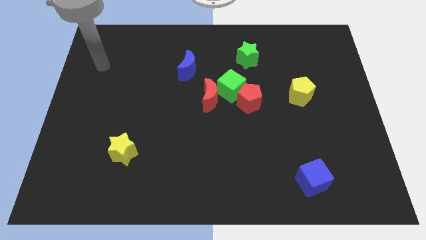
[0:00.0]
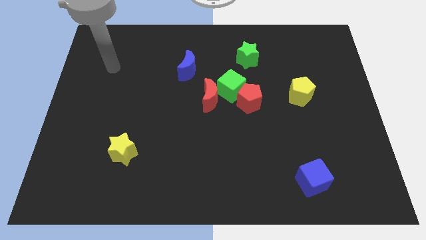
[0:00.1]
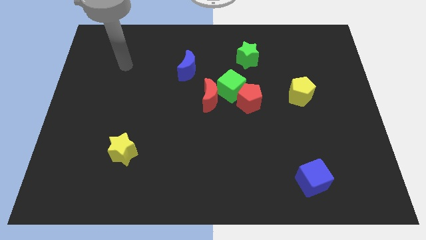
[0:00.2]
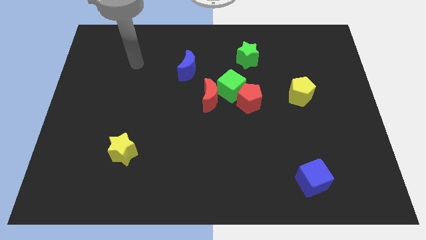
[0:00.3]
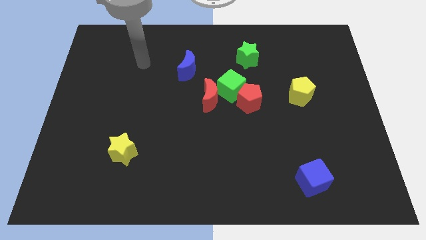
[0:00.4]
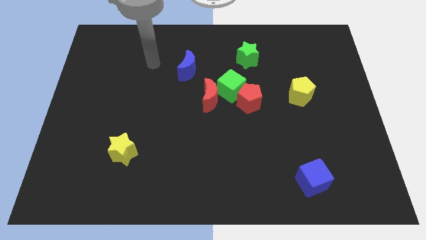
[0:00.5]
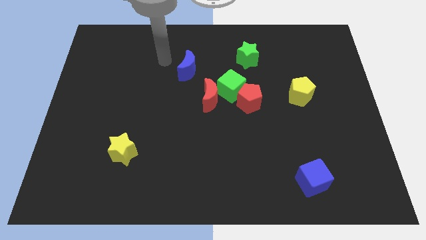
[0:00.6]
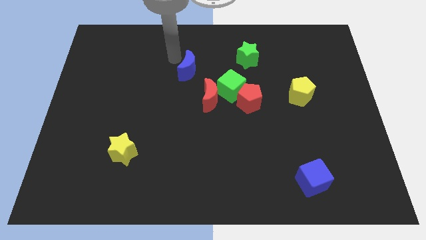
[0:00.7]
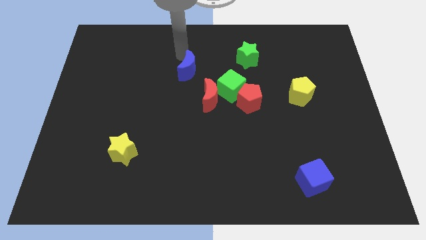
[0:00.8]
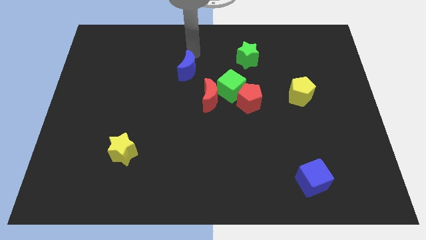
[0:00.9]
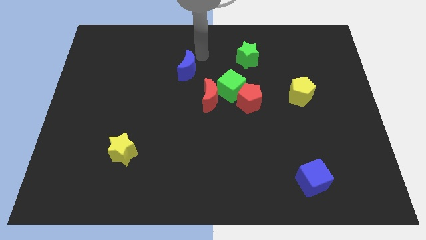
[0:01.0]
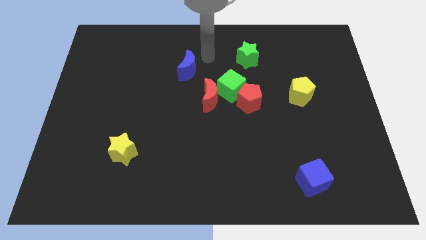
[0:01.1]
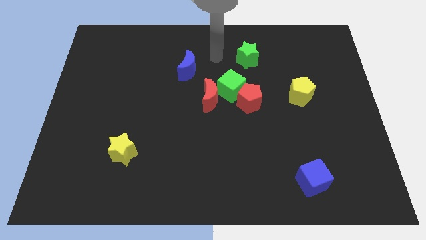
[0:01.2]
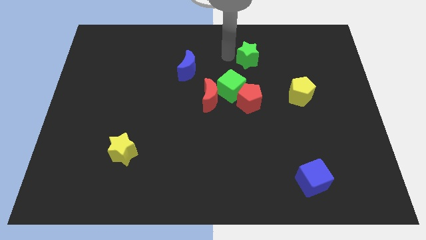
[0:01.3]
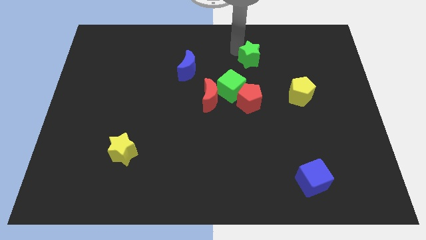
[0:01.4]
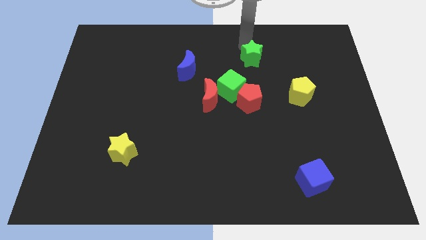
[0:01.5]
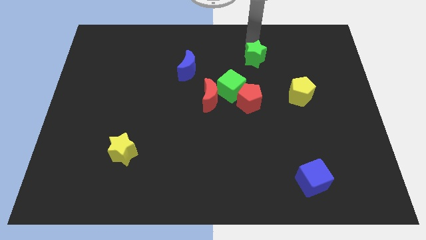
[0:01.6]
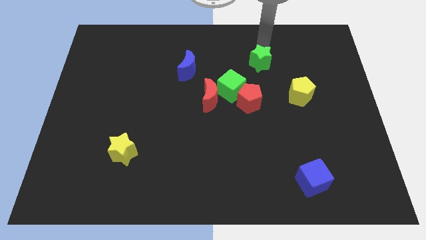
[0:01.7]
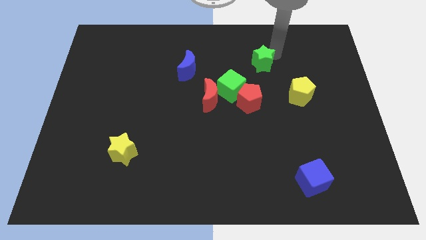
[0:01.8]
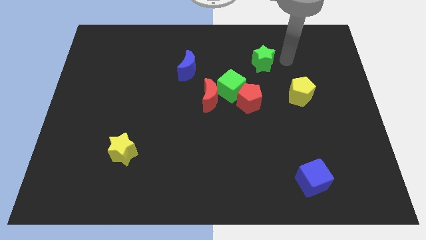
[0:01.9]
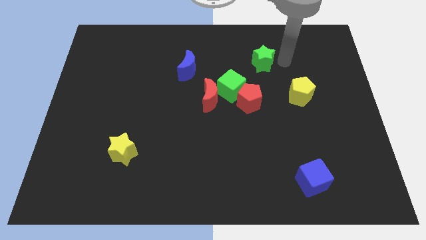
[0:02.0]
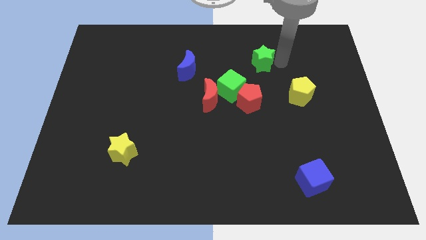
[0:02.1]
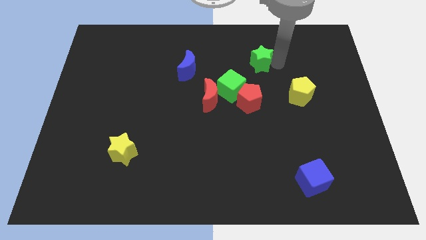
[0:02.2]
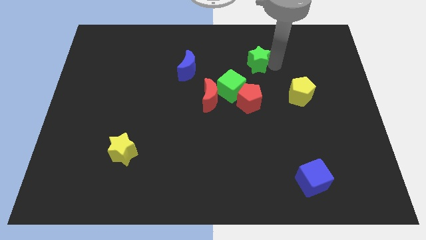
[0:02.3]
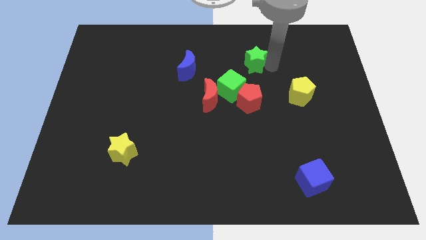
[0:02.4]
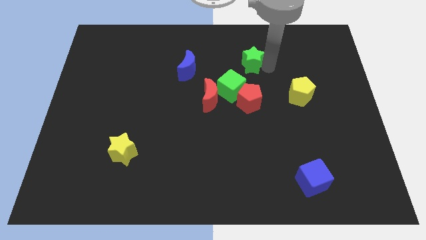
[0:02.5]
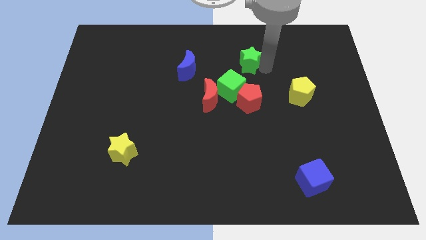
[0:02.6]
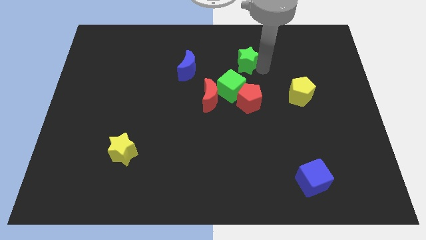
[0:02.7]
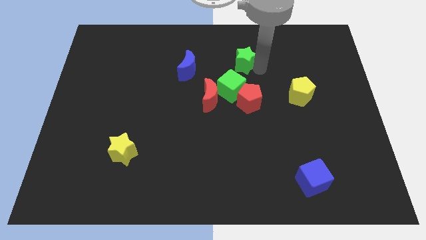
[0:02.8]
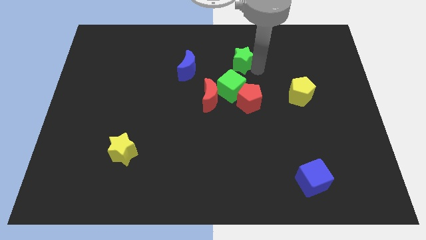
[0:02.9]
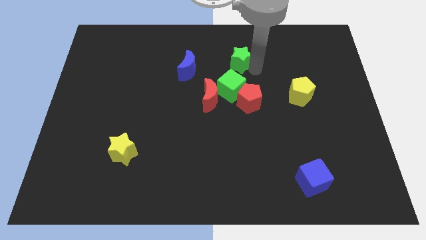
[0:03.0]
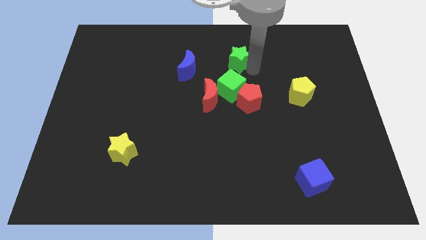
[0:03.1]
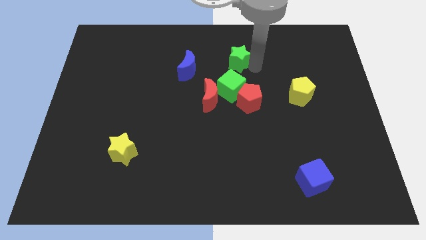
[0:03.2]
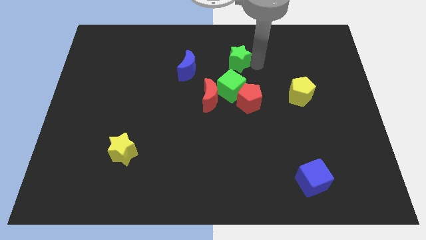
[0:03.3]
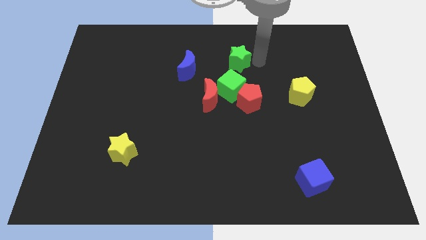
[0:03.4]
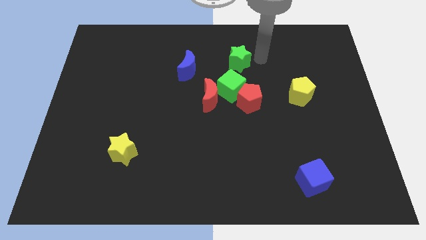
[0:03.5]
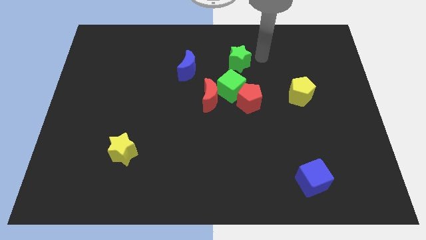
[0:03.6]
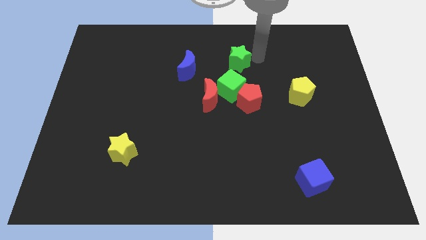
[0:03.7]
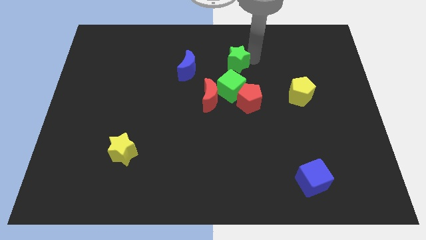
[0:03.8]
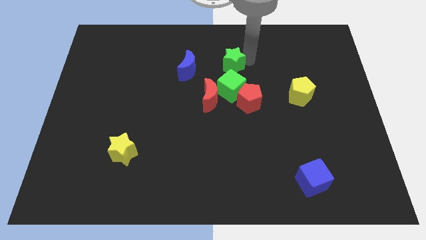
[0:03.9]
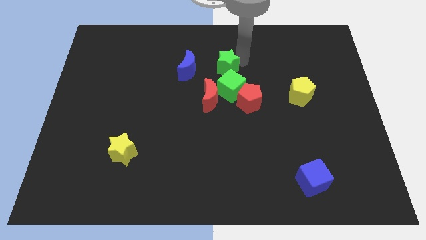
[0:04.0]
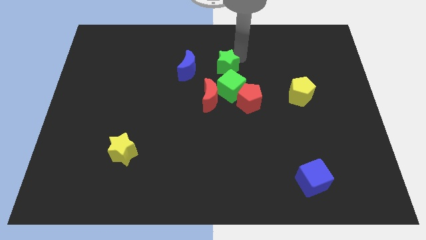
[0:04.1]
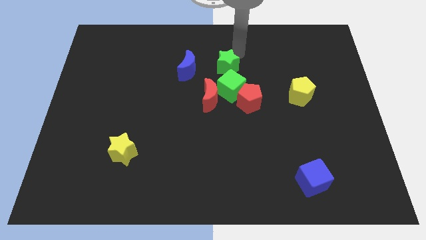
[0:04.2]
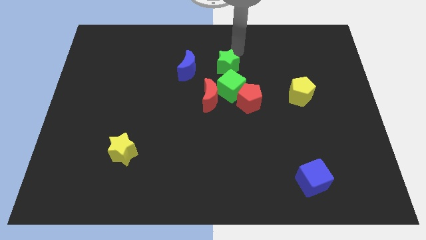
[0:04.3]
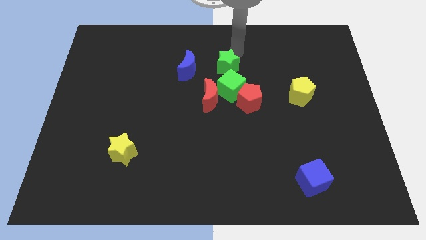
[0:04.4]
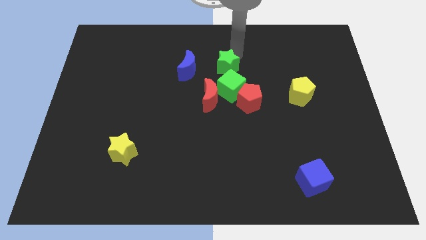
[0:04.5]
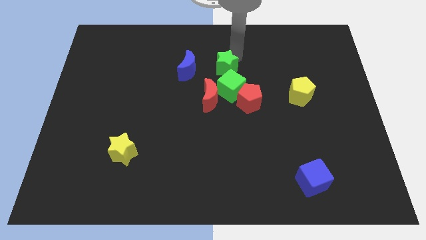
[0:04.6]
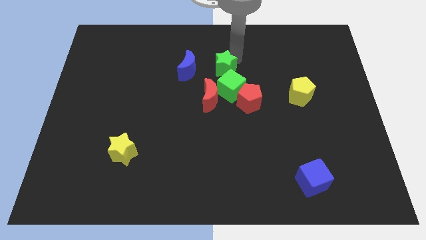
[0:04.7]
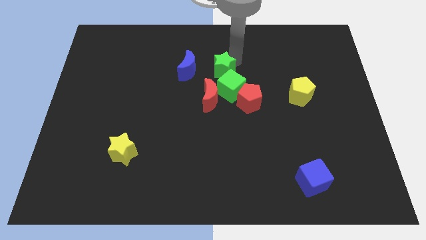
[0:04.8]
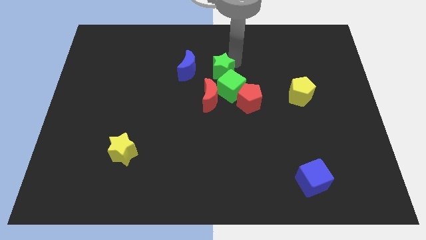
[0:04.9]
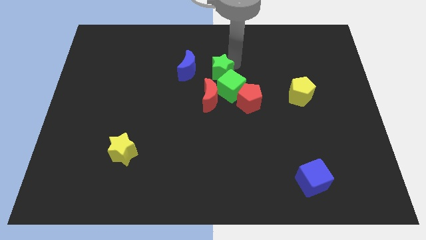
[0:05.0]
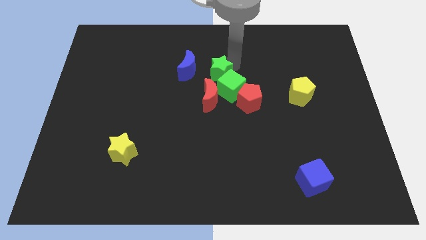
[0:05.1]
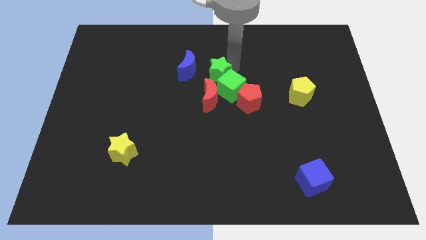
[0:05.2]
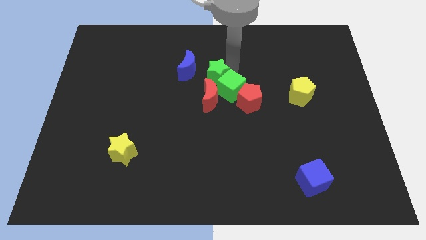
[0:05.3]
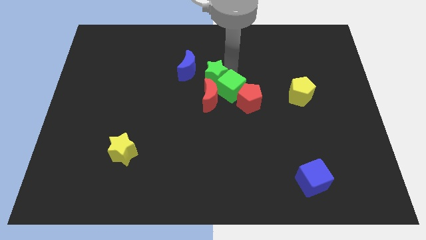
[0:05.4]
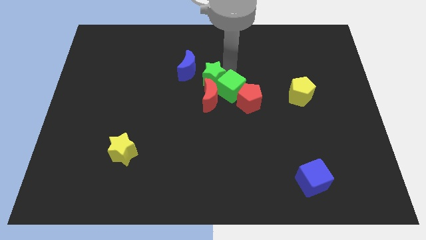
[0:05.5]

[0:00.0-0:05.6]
slide the green star to the red moon

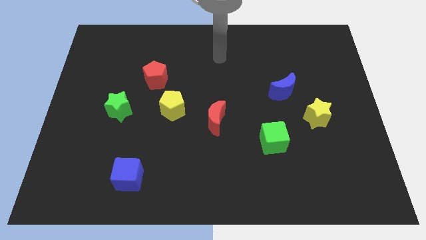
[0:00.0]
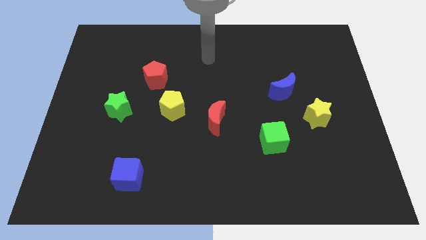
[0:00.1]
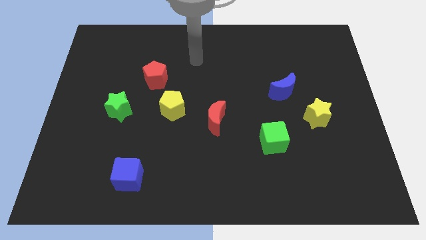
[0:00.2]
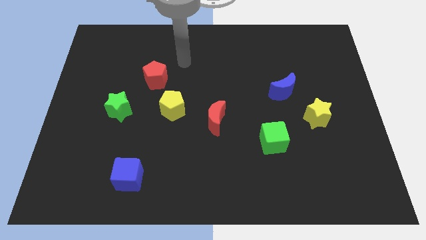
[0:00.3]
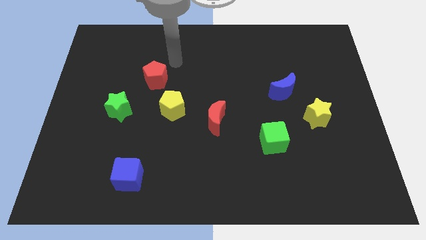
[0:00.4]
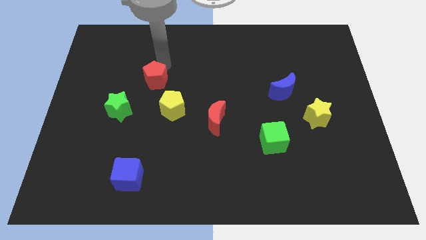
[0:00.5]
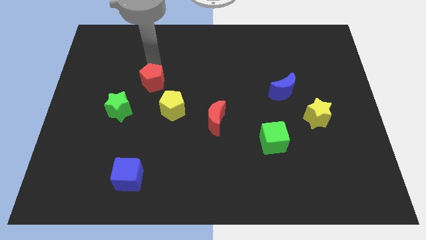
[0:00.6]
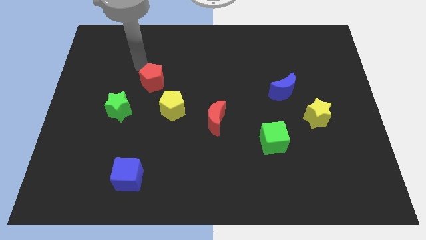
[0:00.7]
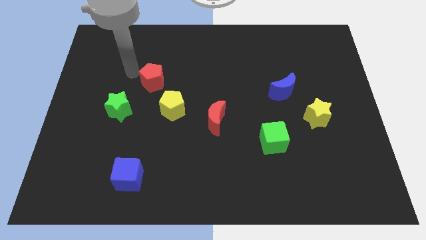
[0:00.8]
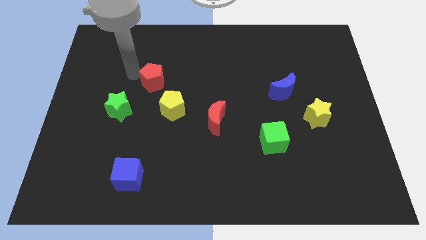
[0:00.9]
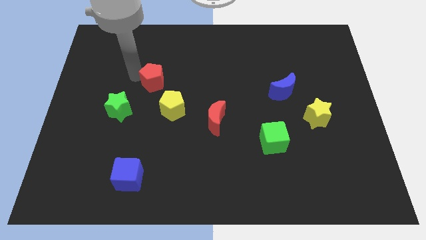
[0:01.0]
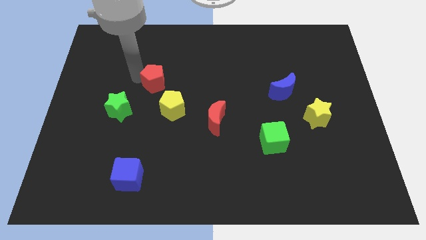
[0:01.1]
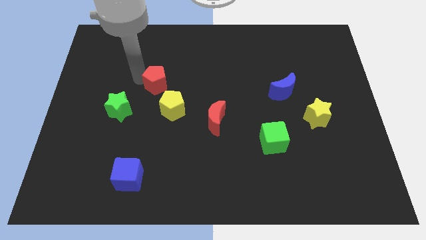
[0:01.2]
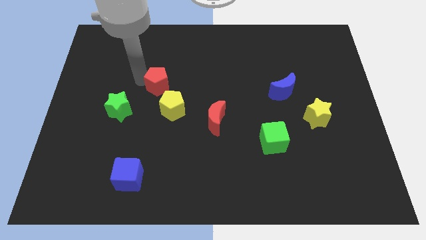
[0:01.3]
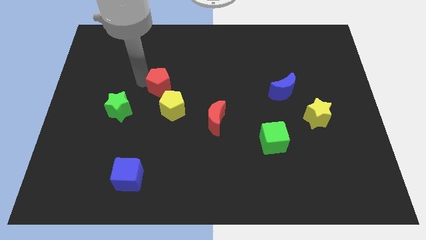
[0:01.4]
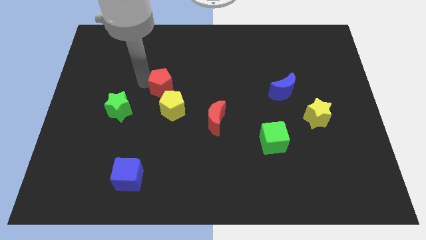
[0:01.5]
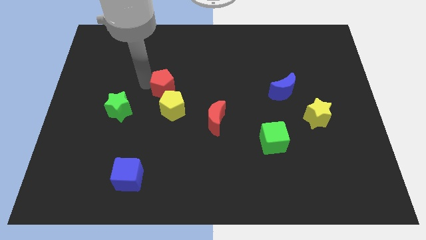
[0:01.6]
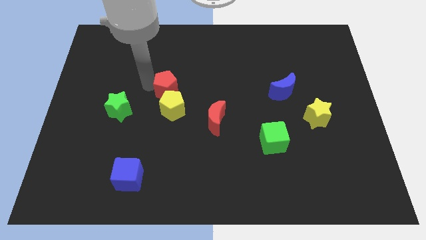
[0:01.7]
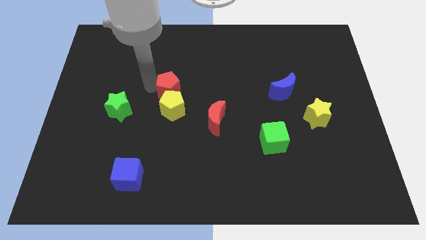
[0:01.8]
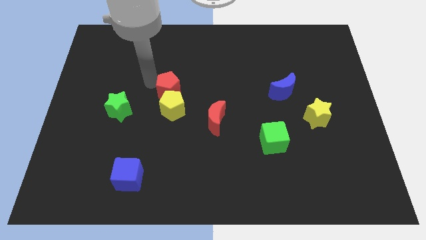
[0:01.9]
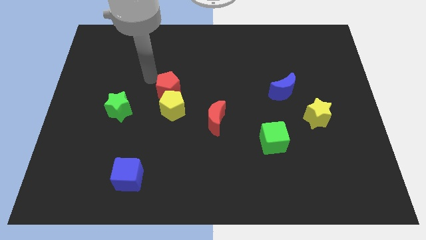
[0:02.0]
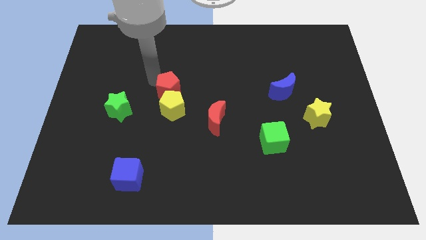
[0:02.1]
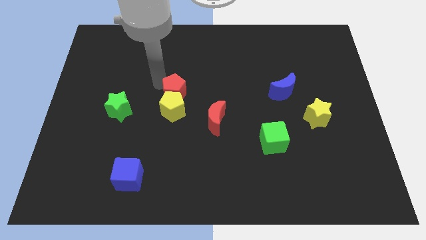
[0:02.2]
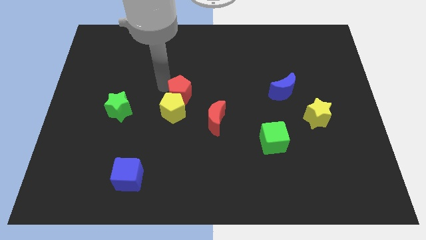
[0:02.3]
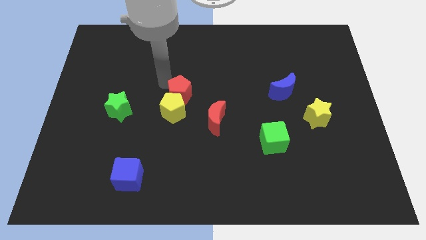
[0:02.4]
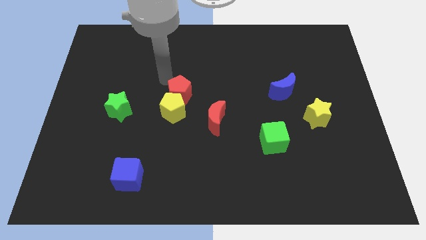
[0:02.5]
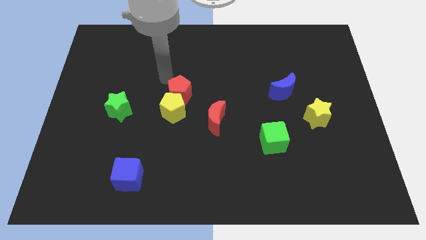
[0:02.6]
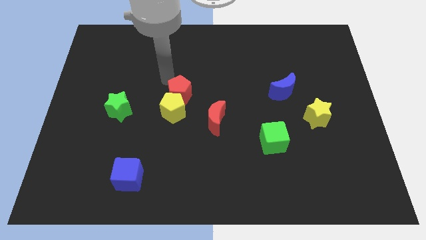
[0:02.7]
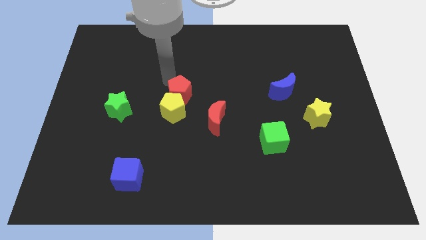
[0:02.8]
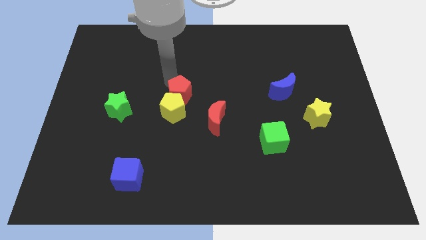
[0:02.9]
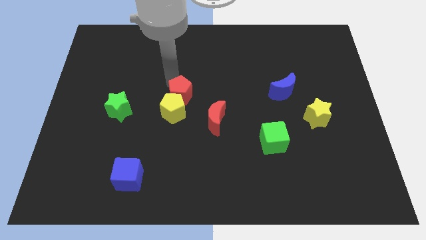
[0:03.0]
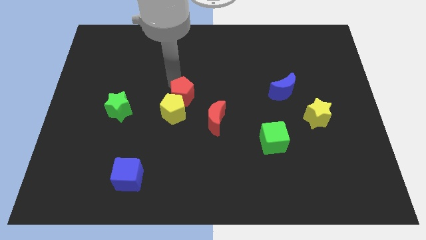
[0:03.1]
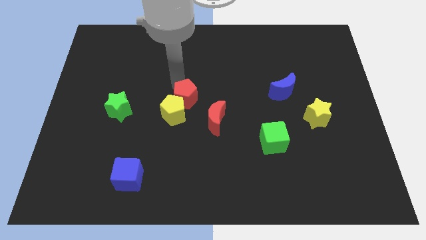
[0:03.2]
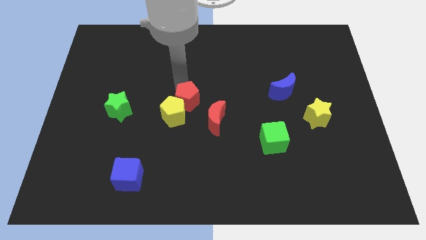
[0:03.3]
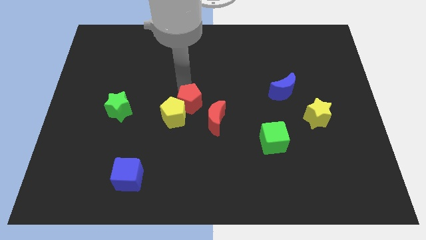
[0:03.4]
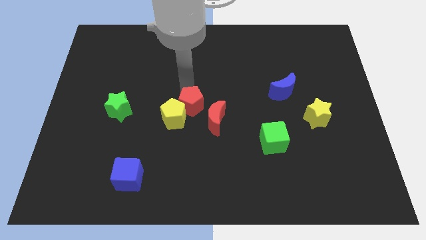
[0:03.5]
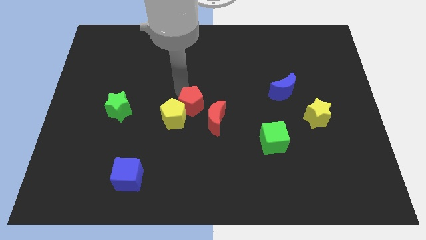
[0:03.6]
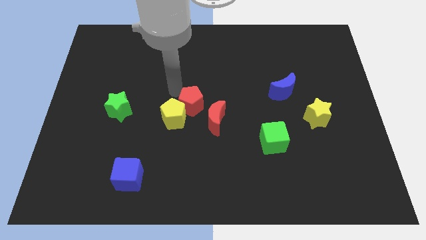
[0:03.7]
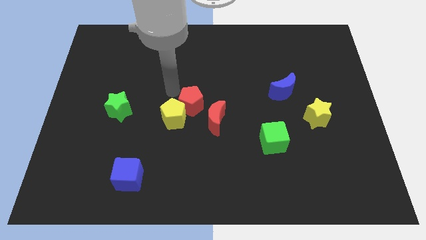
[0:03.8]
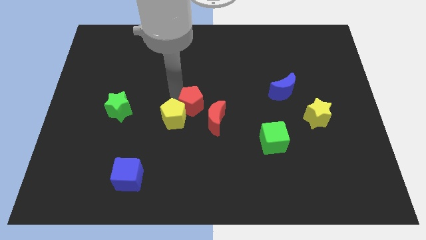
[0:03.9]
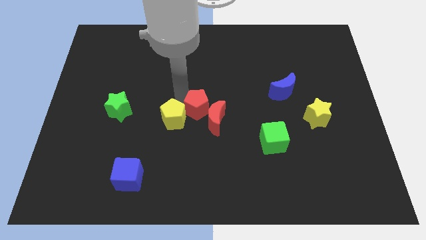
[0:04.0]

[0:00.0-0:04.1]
push the red pentagon to the red moon
